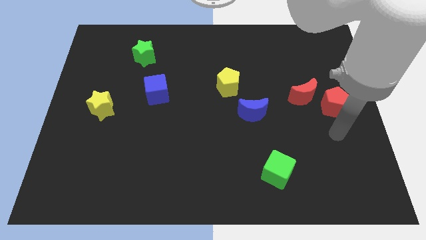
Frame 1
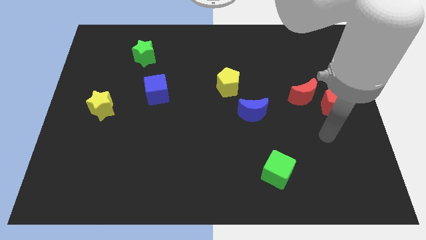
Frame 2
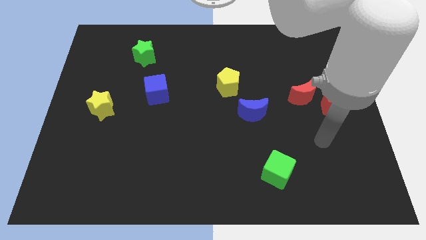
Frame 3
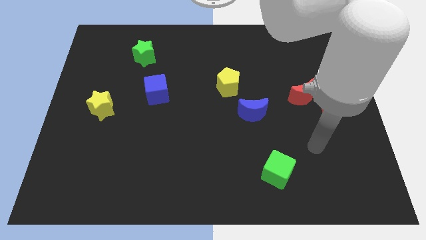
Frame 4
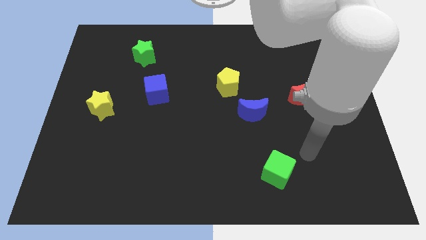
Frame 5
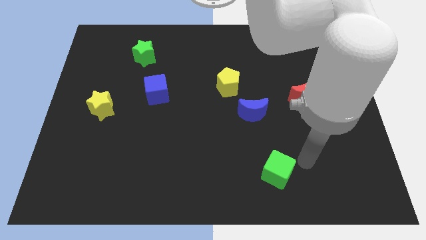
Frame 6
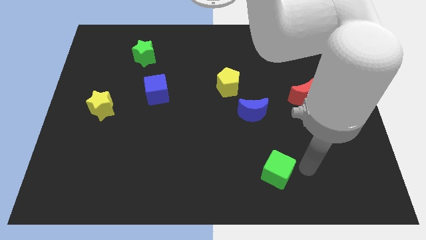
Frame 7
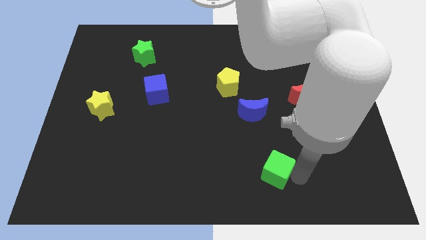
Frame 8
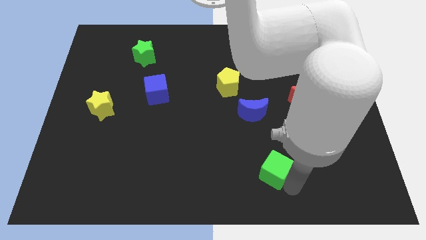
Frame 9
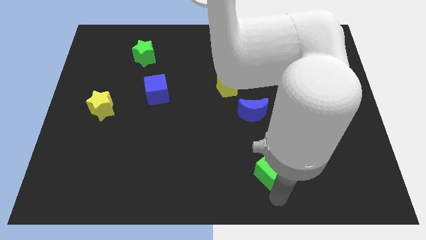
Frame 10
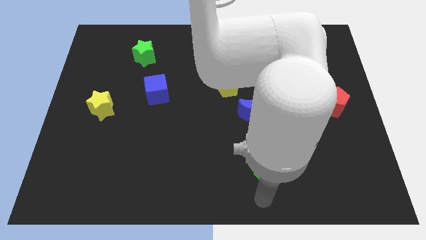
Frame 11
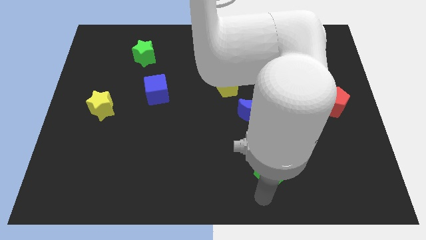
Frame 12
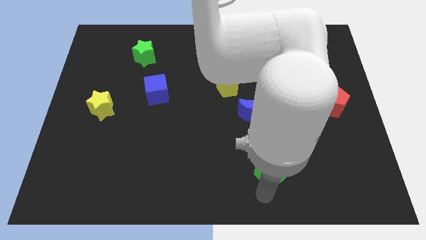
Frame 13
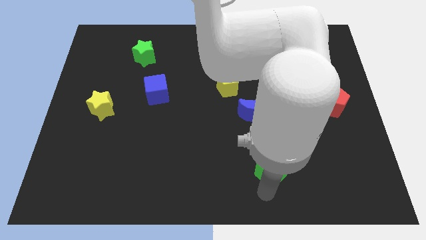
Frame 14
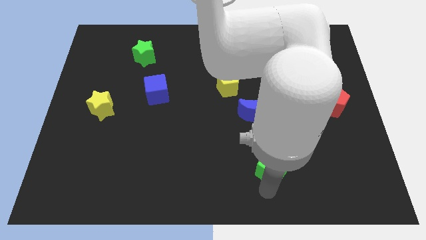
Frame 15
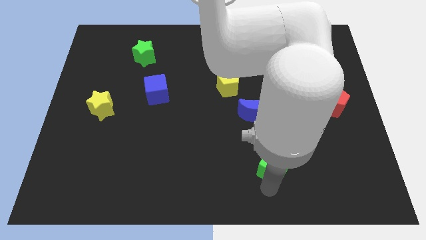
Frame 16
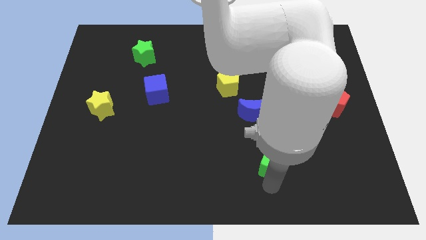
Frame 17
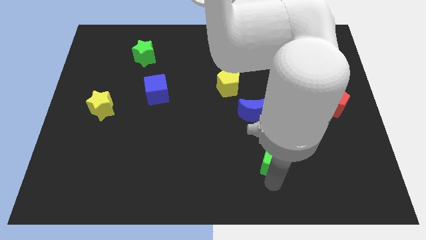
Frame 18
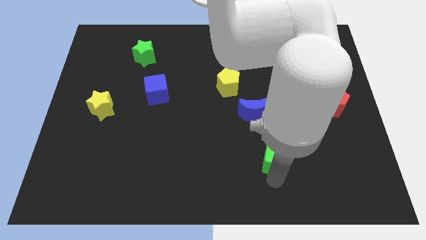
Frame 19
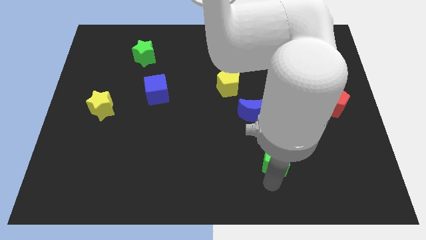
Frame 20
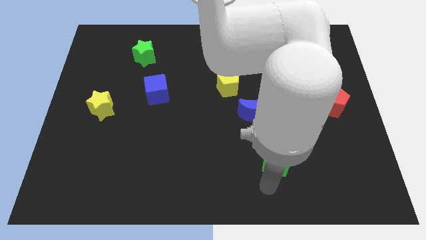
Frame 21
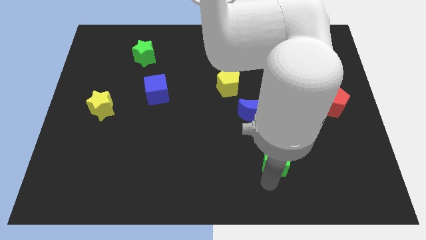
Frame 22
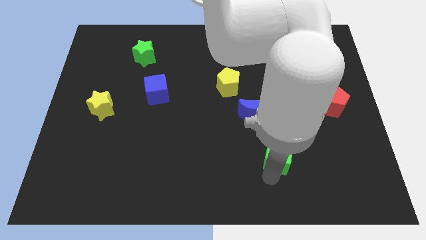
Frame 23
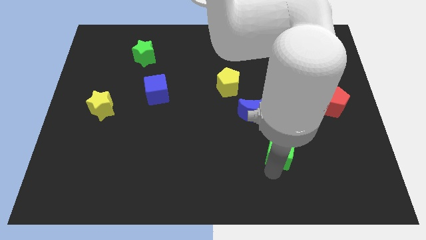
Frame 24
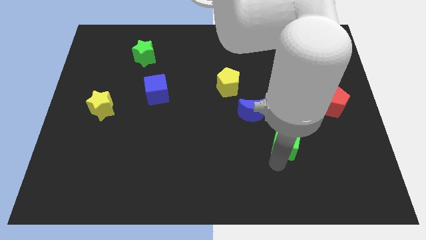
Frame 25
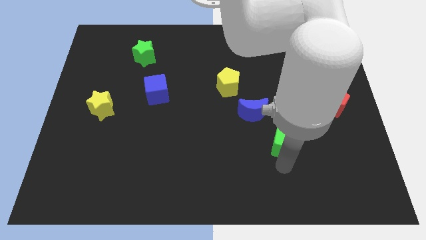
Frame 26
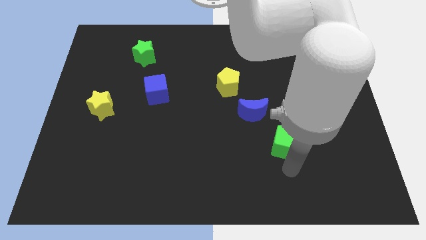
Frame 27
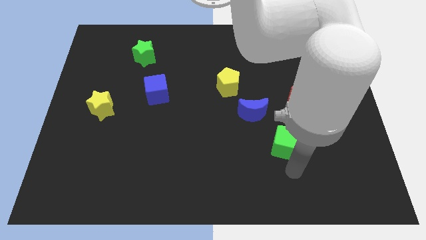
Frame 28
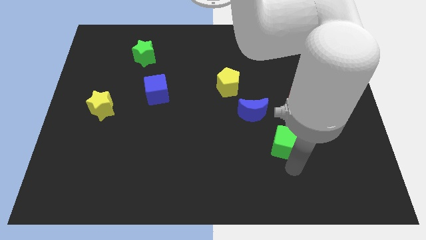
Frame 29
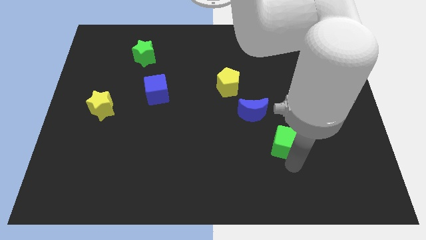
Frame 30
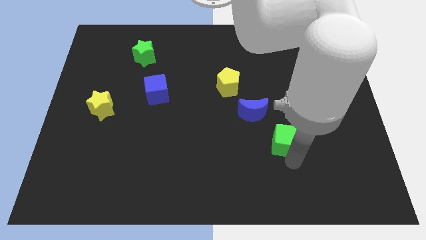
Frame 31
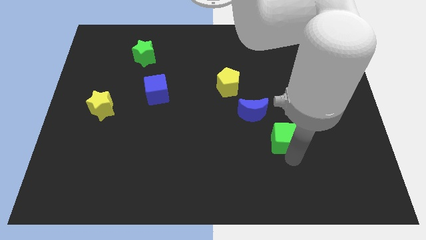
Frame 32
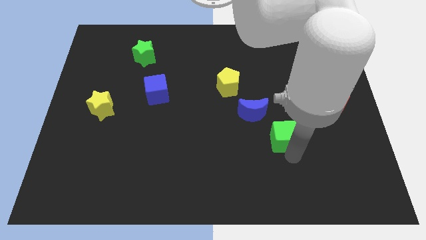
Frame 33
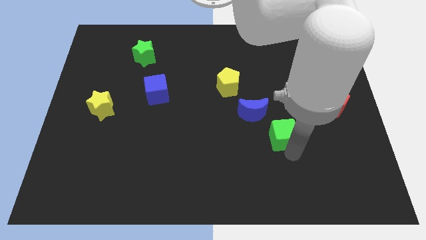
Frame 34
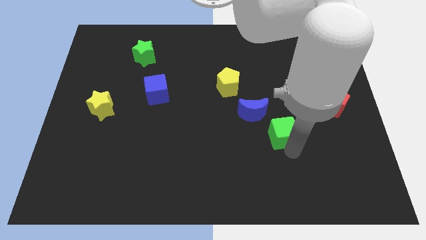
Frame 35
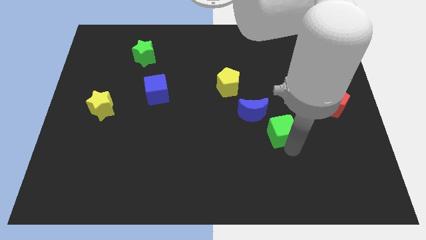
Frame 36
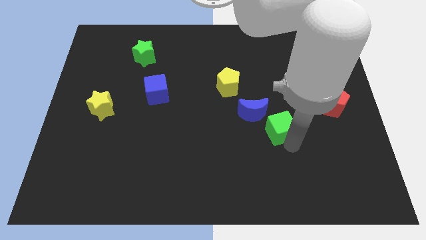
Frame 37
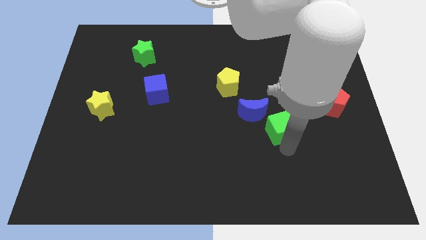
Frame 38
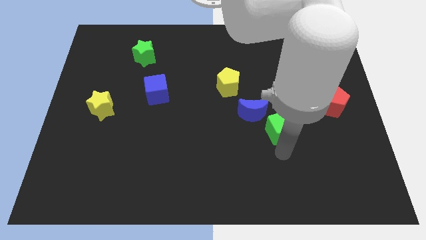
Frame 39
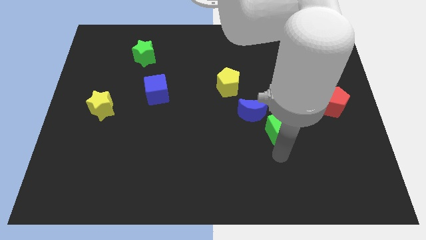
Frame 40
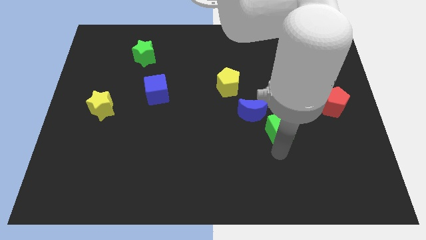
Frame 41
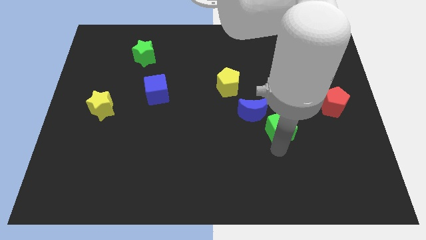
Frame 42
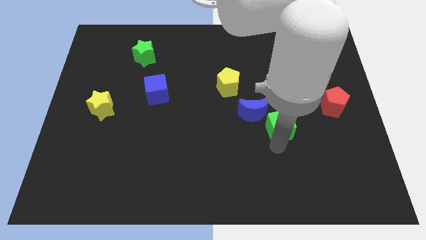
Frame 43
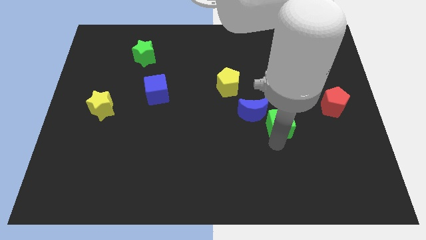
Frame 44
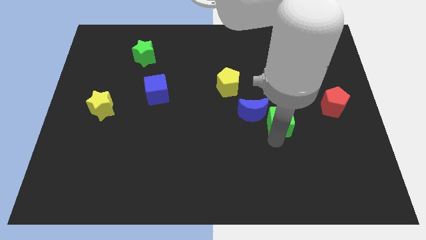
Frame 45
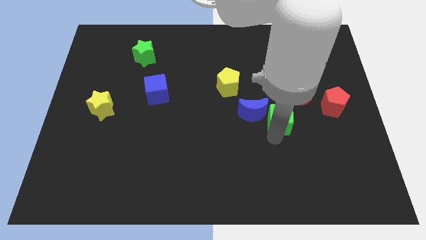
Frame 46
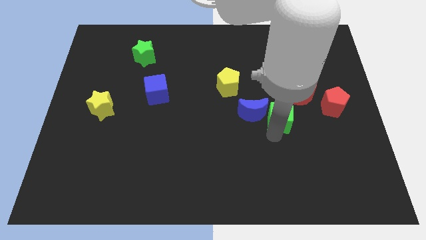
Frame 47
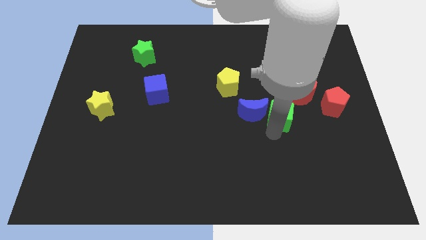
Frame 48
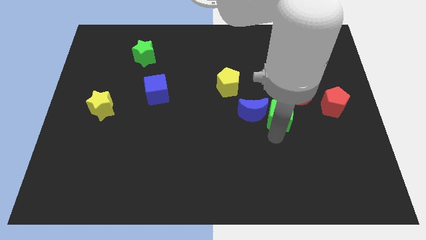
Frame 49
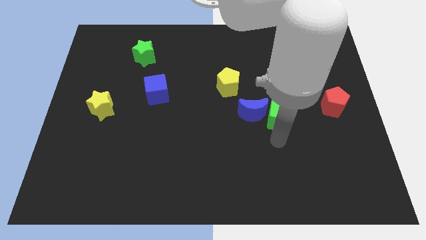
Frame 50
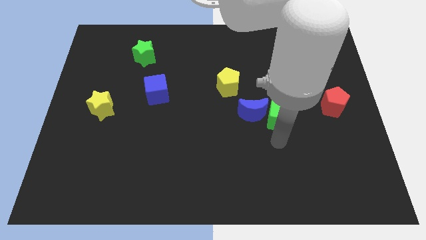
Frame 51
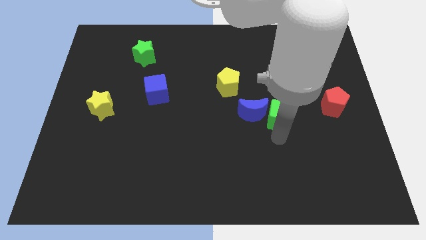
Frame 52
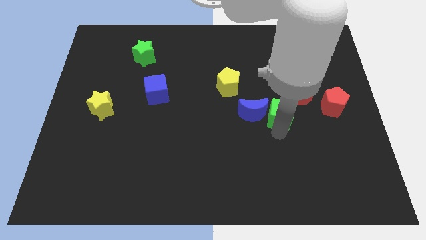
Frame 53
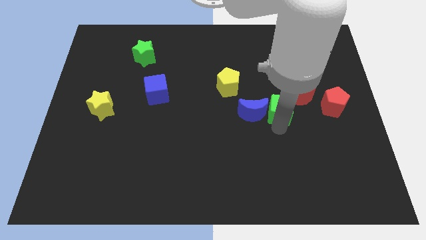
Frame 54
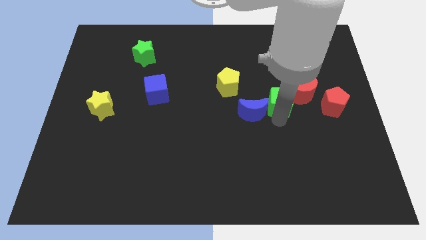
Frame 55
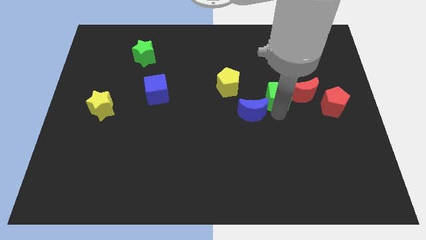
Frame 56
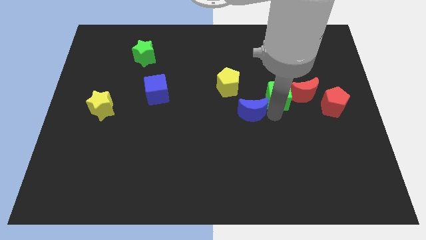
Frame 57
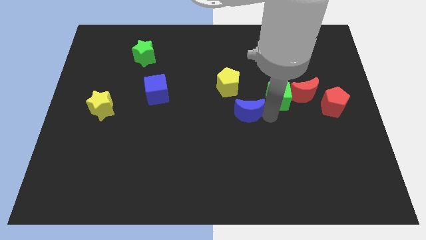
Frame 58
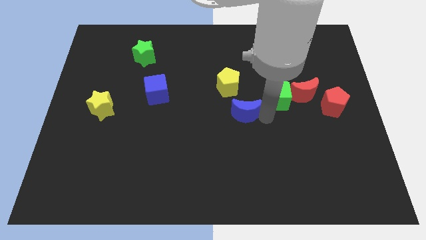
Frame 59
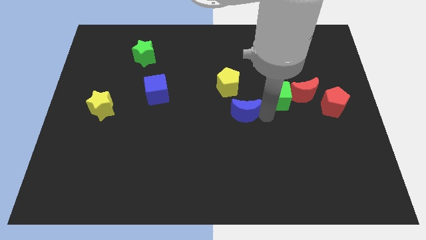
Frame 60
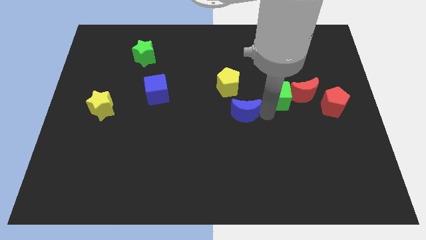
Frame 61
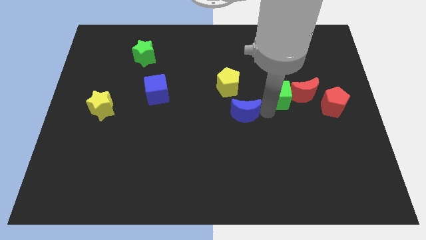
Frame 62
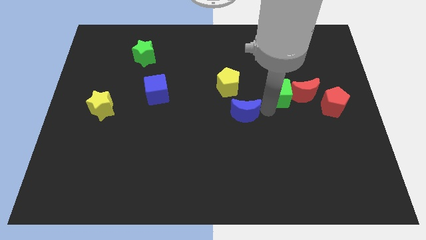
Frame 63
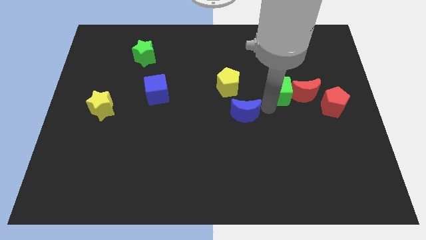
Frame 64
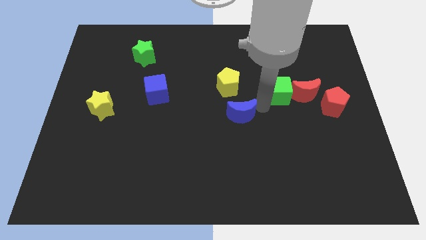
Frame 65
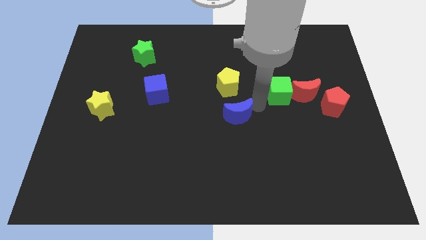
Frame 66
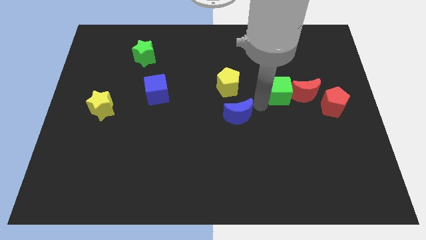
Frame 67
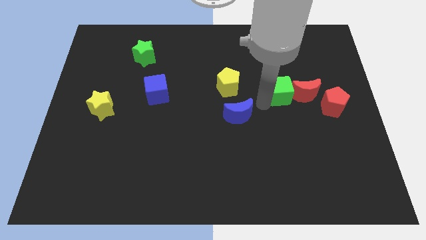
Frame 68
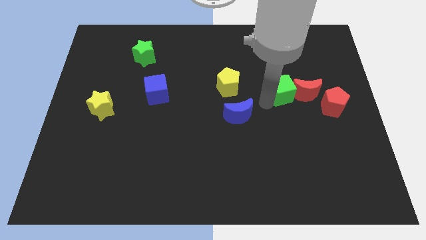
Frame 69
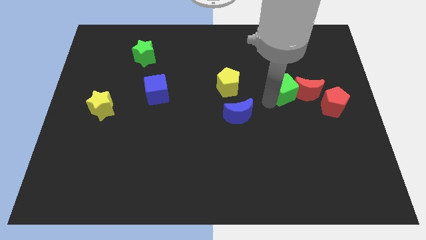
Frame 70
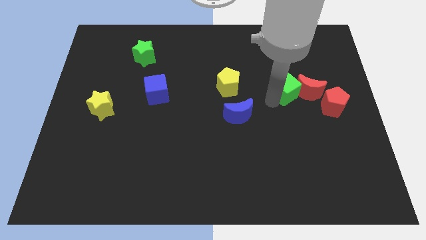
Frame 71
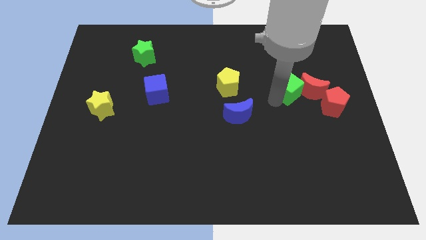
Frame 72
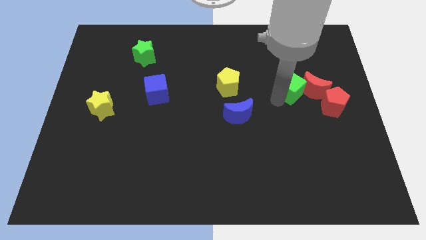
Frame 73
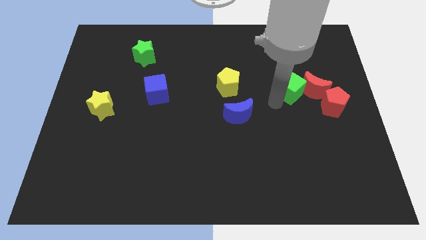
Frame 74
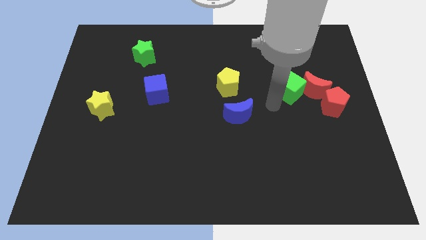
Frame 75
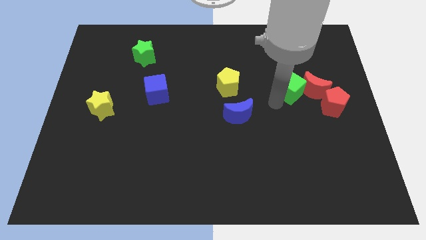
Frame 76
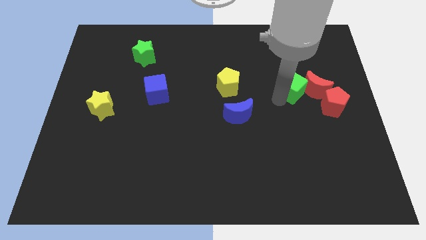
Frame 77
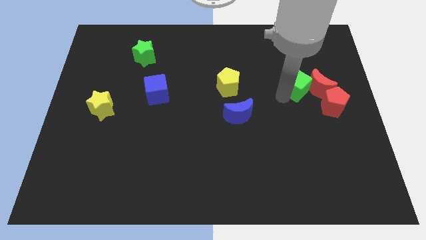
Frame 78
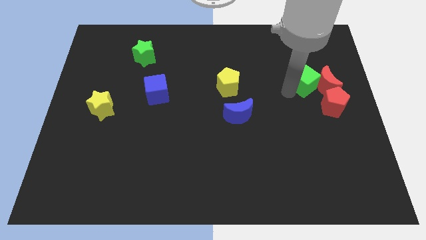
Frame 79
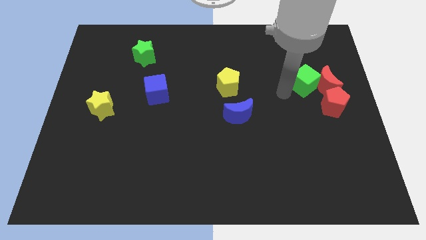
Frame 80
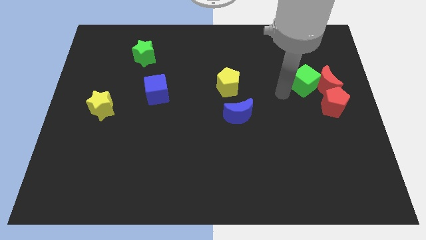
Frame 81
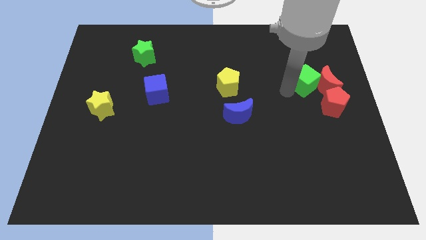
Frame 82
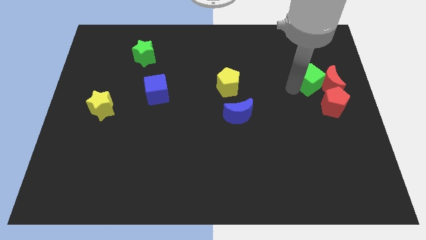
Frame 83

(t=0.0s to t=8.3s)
put the green cube to the top side of the red pentagon
